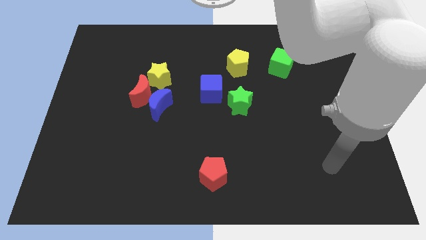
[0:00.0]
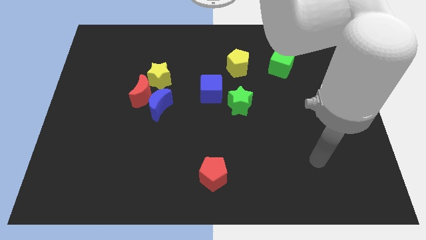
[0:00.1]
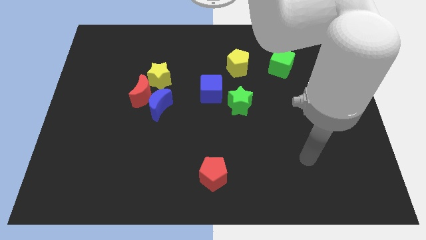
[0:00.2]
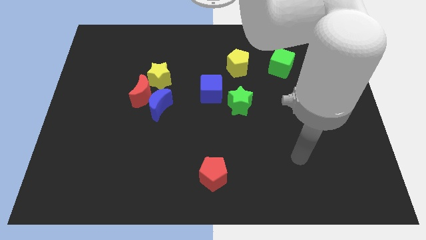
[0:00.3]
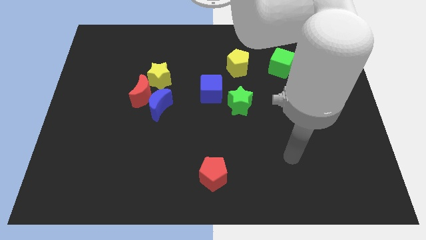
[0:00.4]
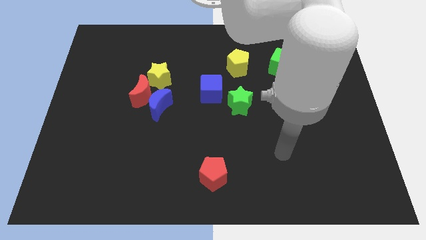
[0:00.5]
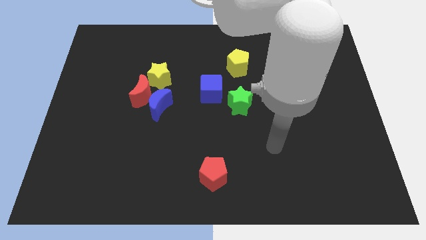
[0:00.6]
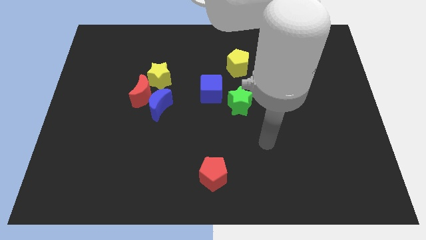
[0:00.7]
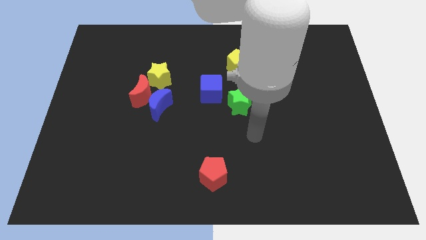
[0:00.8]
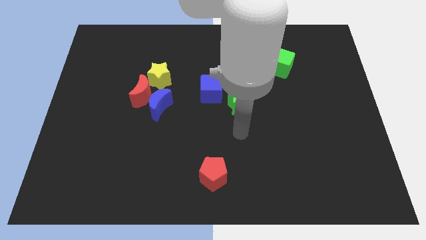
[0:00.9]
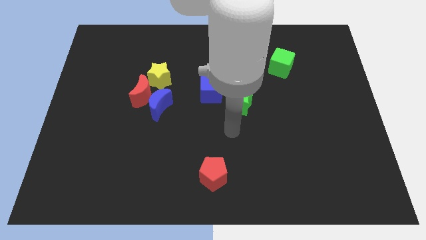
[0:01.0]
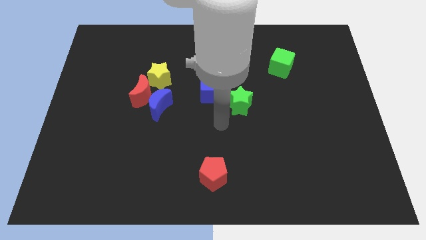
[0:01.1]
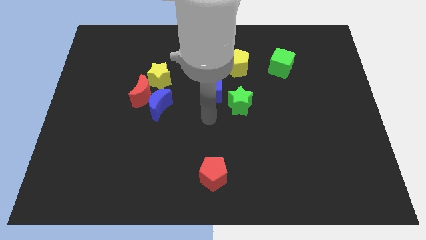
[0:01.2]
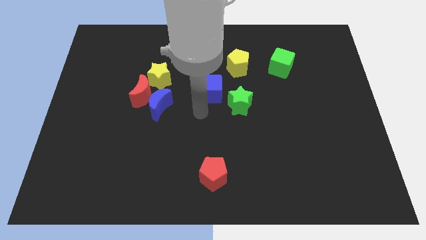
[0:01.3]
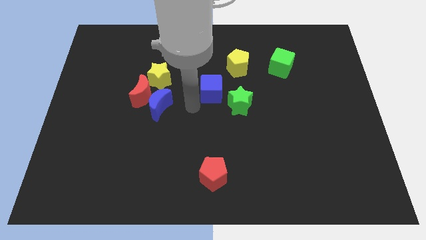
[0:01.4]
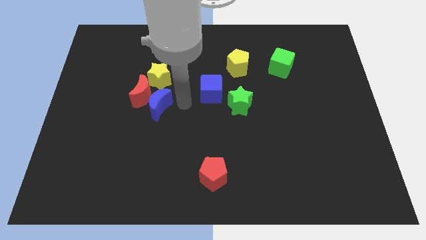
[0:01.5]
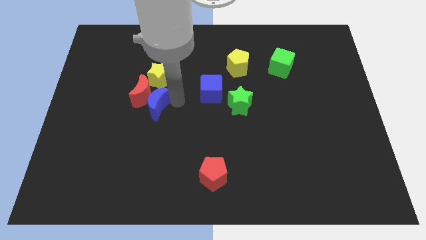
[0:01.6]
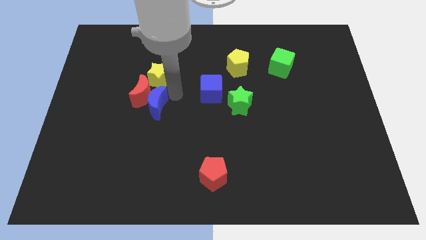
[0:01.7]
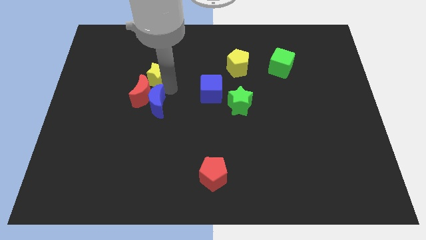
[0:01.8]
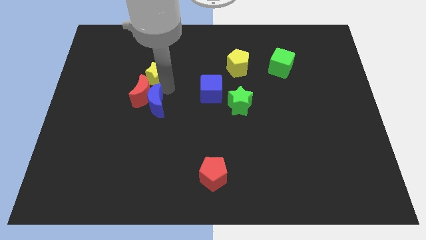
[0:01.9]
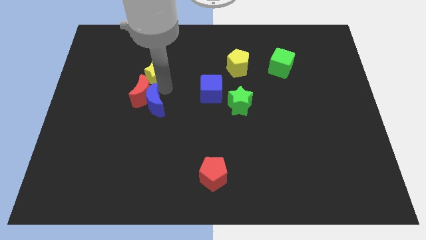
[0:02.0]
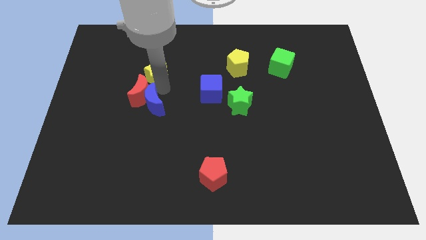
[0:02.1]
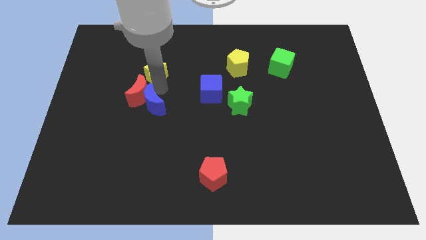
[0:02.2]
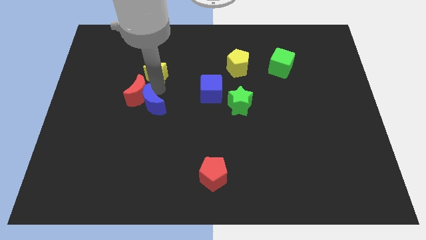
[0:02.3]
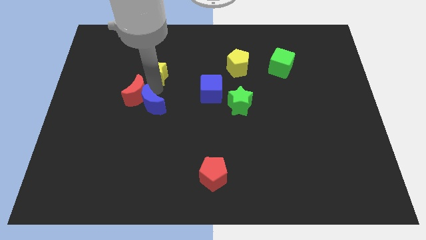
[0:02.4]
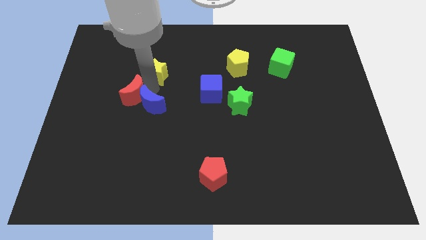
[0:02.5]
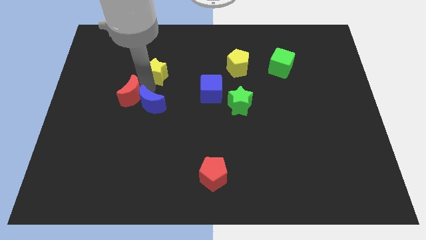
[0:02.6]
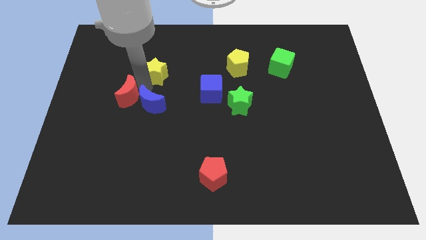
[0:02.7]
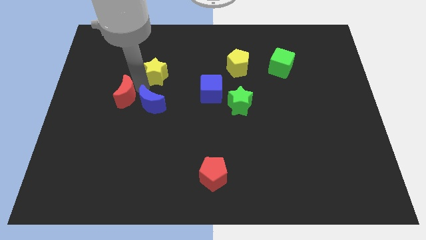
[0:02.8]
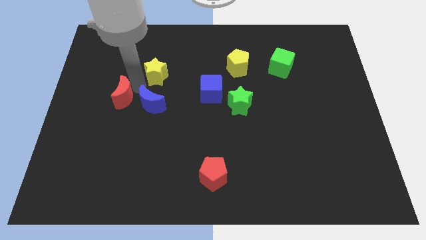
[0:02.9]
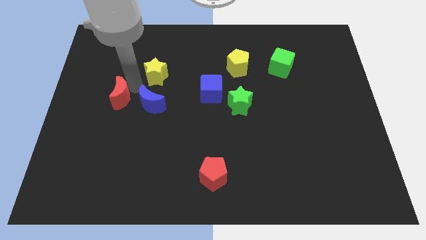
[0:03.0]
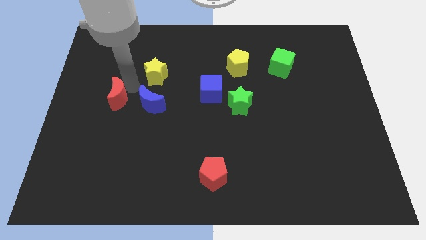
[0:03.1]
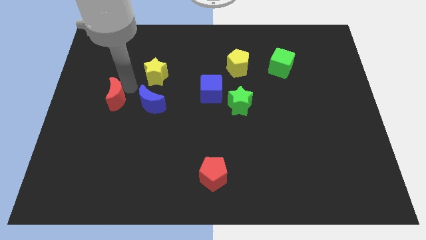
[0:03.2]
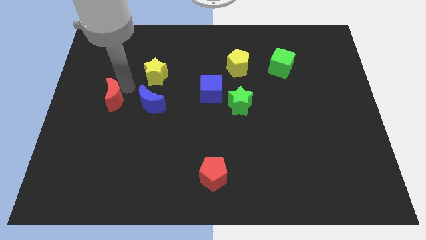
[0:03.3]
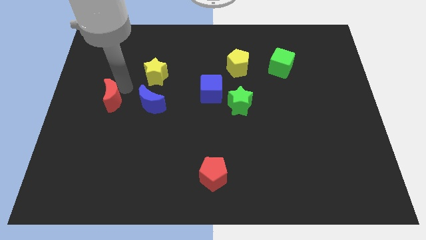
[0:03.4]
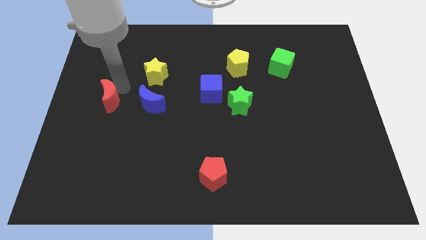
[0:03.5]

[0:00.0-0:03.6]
pull the red moon apart from the blue moon and yellow star

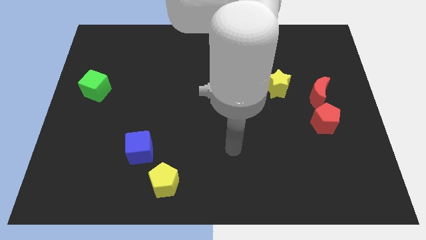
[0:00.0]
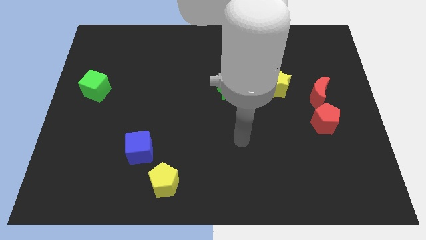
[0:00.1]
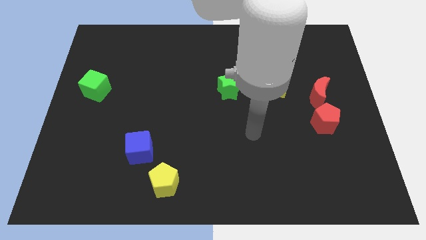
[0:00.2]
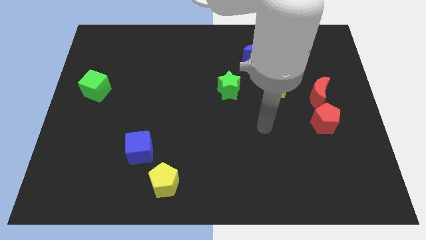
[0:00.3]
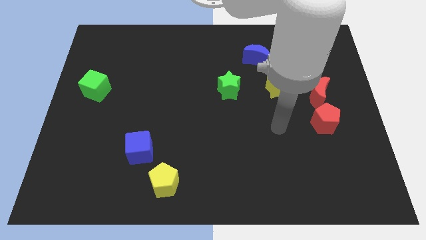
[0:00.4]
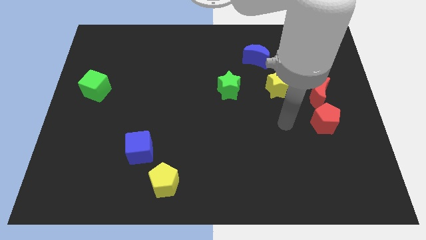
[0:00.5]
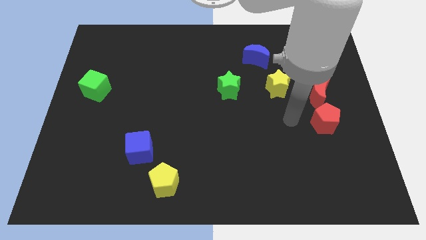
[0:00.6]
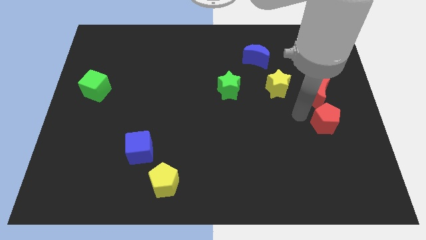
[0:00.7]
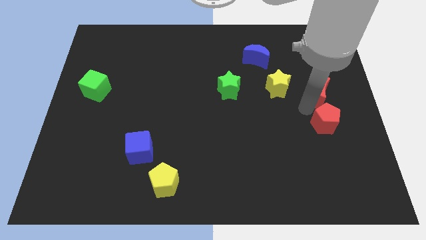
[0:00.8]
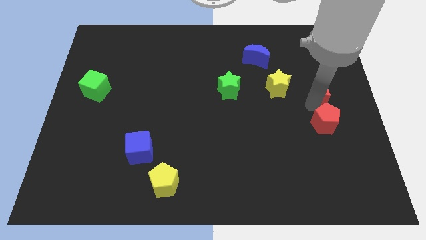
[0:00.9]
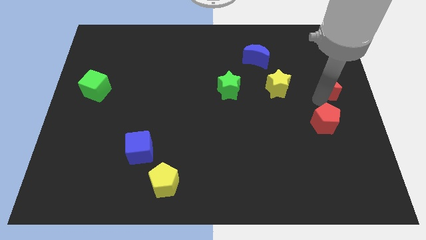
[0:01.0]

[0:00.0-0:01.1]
pull the red pentagon apart from the red moon

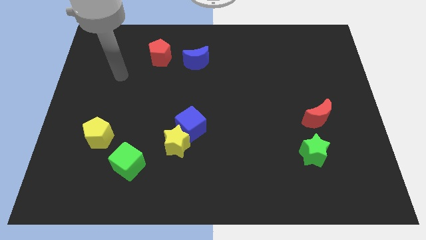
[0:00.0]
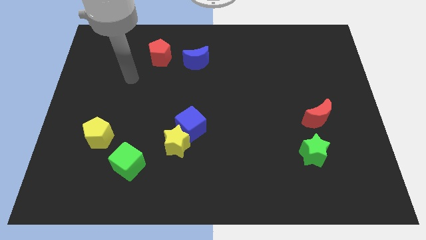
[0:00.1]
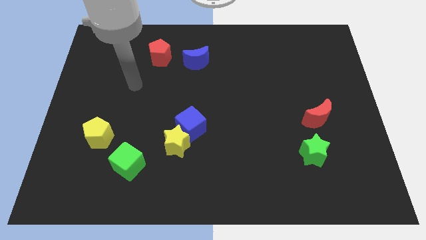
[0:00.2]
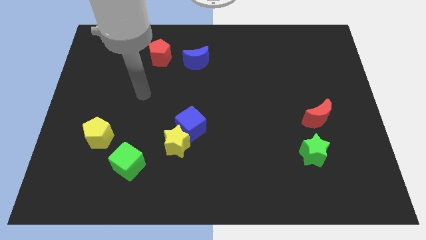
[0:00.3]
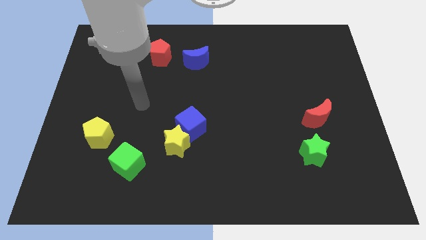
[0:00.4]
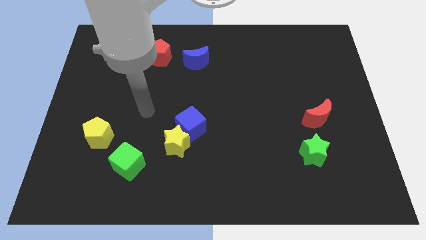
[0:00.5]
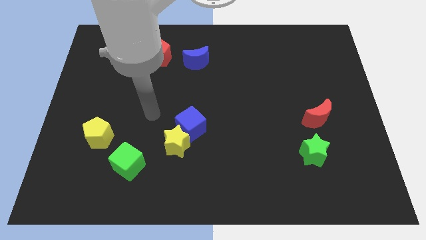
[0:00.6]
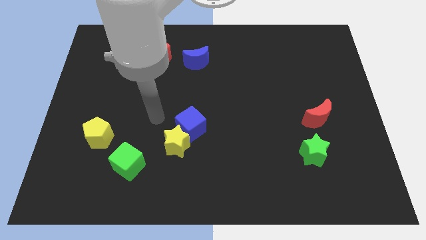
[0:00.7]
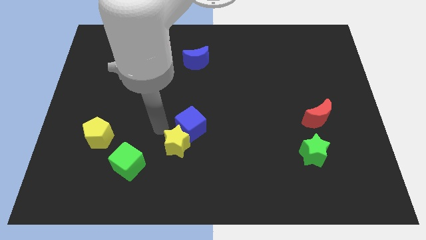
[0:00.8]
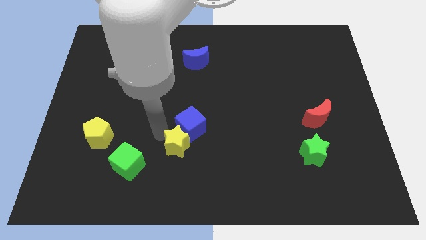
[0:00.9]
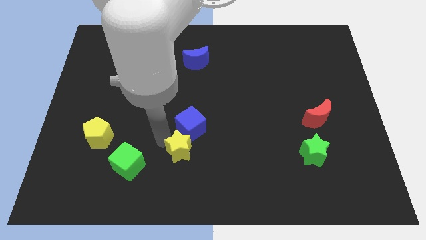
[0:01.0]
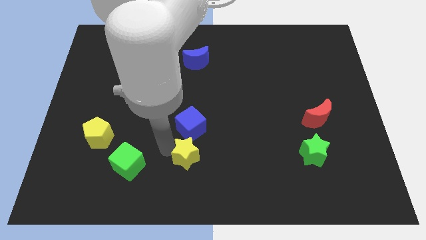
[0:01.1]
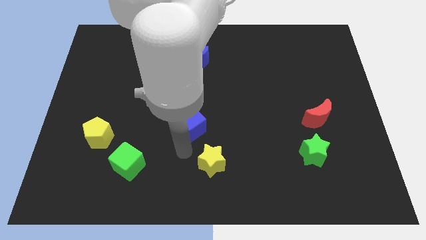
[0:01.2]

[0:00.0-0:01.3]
move the blue cube away from the yellow star

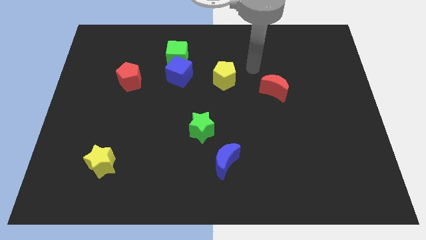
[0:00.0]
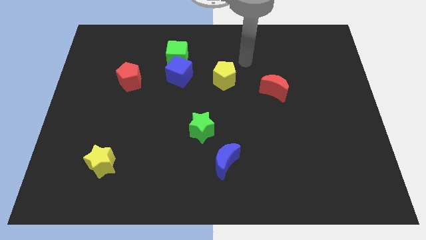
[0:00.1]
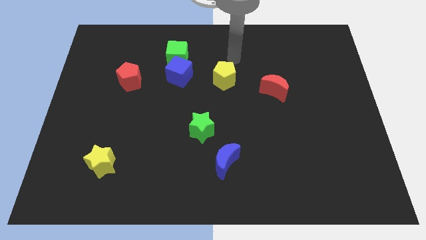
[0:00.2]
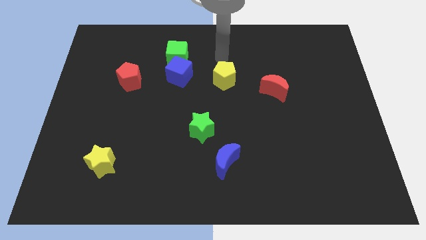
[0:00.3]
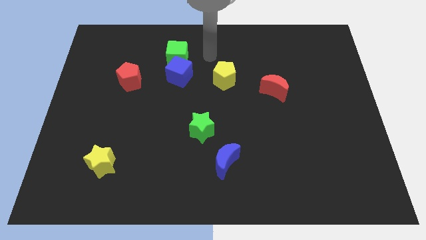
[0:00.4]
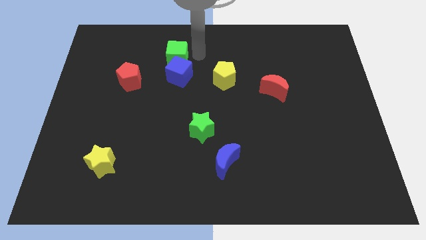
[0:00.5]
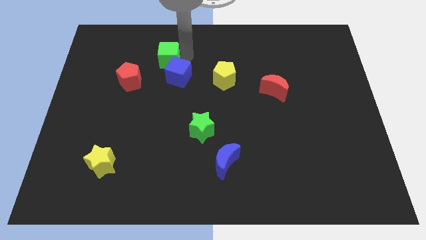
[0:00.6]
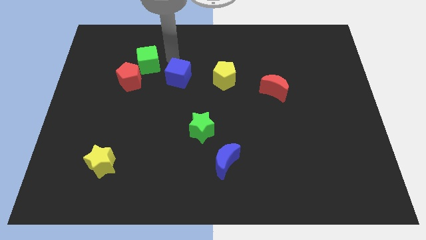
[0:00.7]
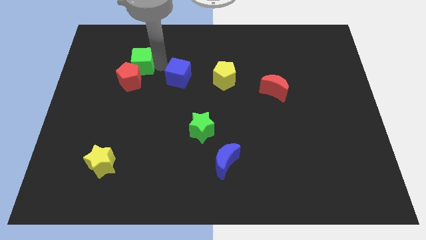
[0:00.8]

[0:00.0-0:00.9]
move the blue cube away from the green cube

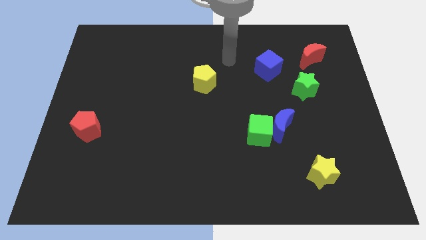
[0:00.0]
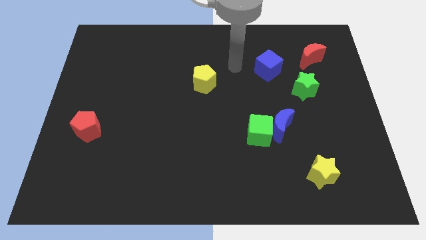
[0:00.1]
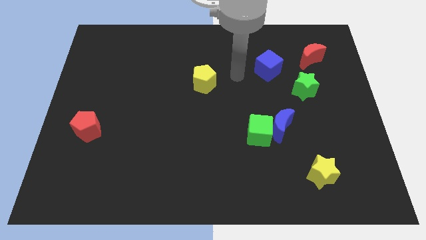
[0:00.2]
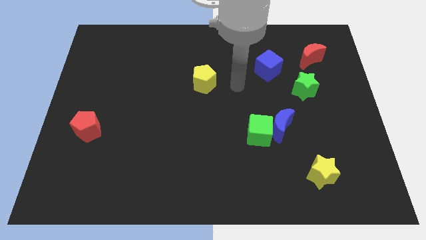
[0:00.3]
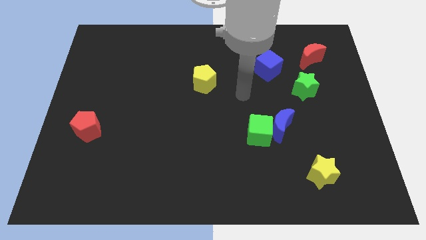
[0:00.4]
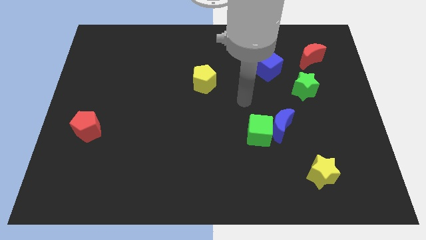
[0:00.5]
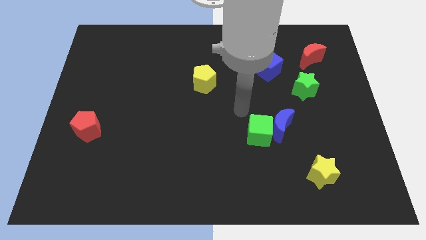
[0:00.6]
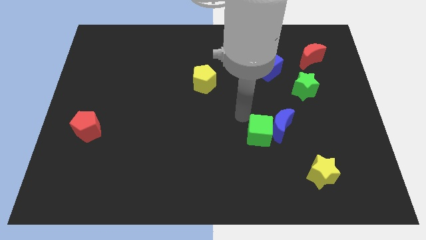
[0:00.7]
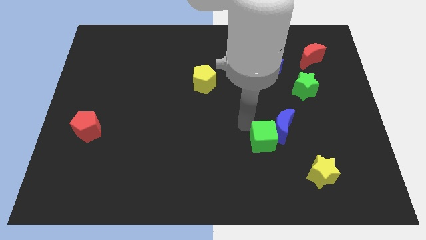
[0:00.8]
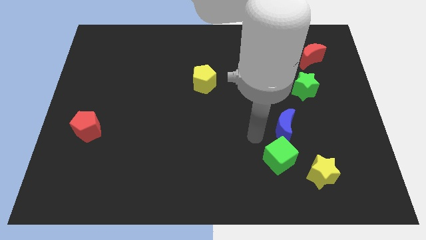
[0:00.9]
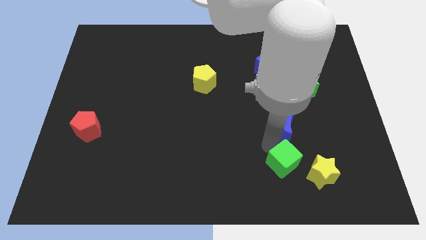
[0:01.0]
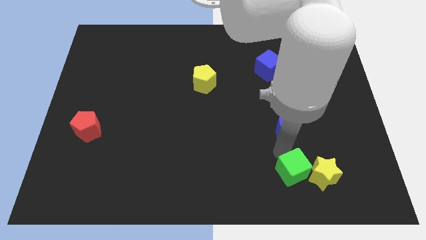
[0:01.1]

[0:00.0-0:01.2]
move the blue moon away from the green cube

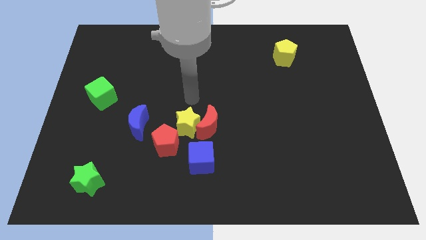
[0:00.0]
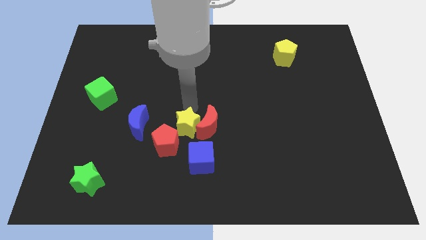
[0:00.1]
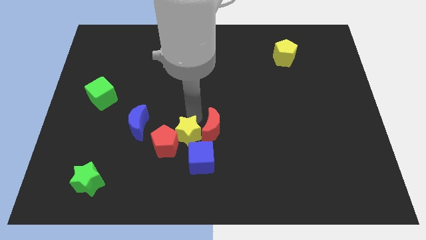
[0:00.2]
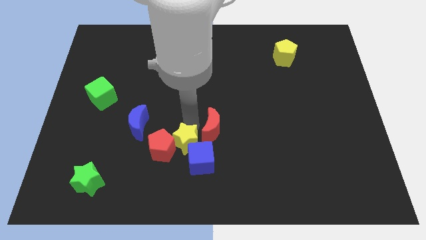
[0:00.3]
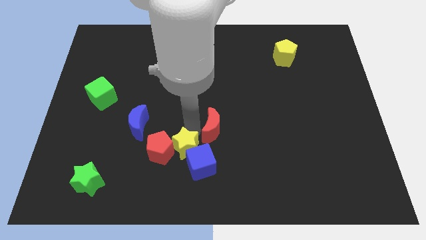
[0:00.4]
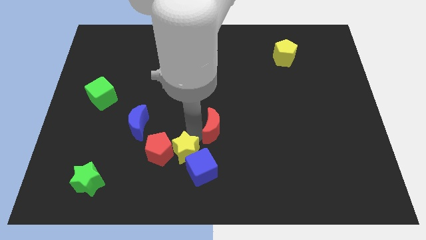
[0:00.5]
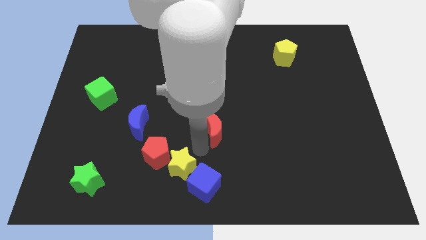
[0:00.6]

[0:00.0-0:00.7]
move the red moon away from the yellow star and blue cube

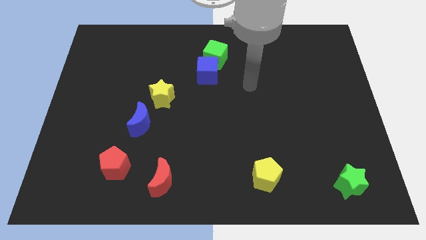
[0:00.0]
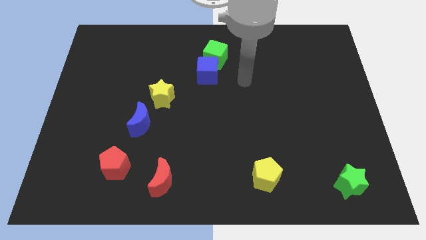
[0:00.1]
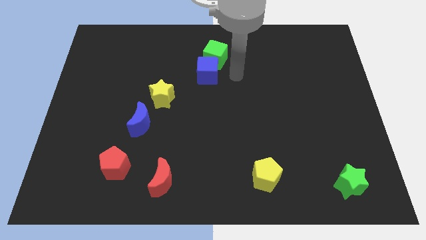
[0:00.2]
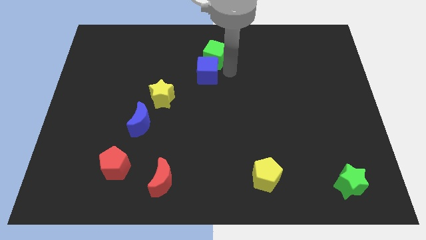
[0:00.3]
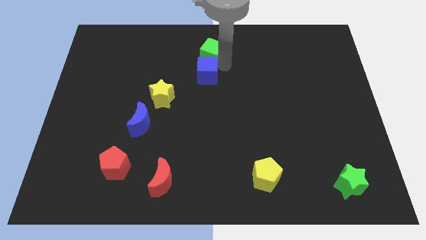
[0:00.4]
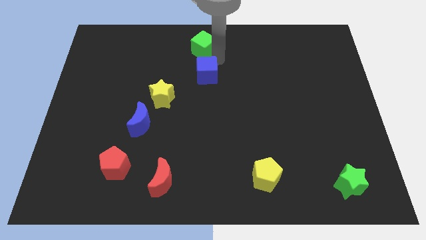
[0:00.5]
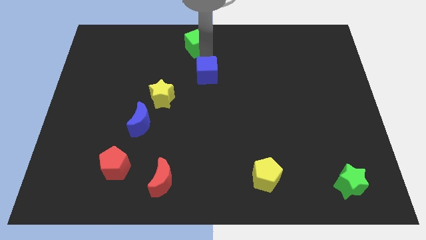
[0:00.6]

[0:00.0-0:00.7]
separate the blue cube from the green cube
